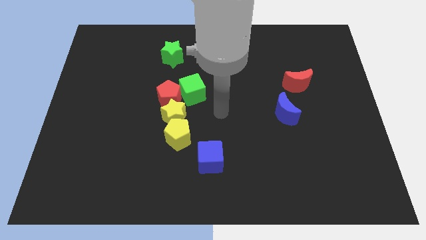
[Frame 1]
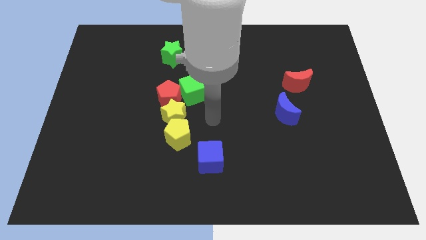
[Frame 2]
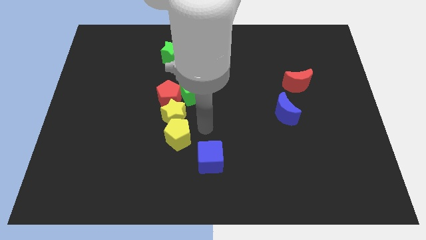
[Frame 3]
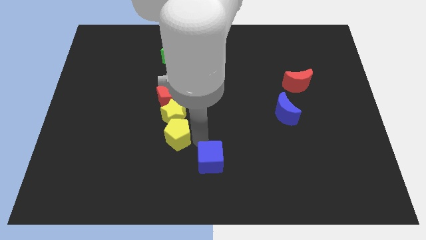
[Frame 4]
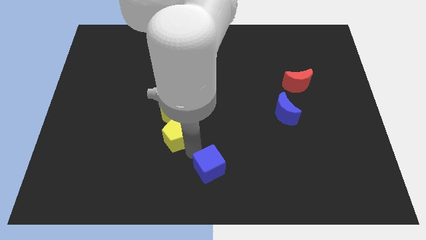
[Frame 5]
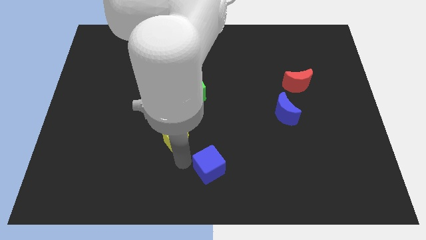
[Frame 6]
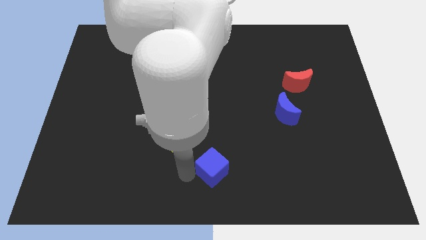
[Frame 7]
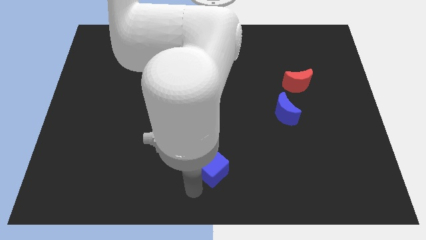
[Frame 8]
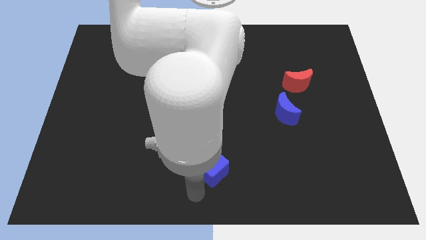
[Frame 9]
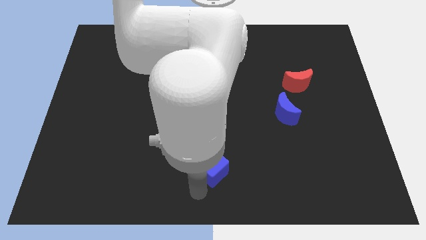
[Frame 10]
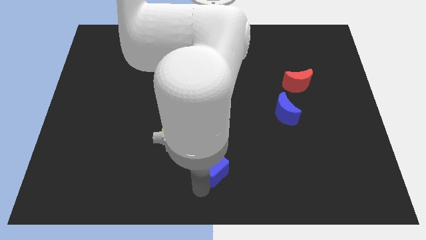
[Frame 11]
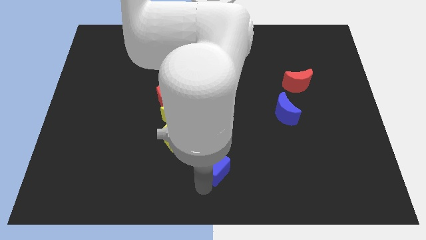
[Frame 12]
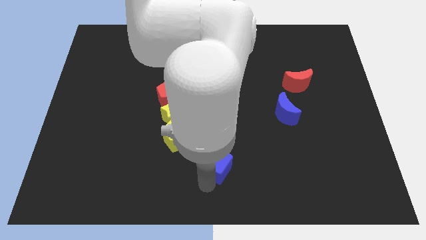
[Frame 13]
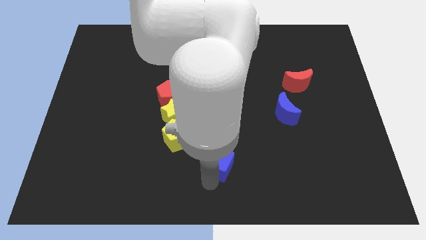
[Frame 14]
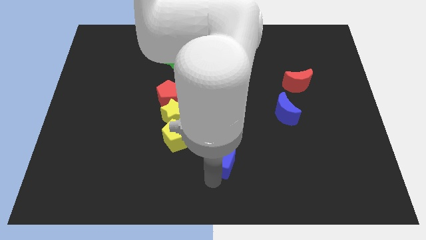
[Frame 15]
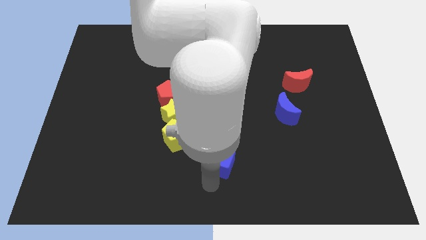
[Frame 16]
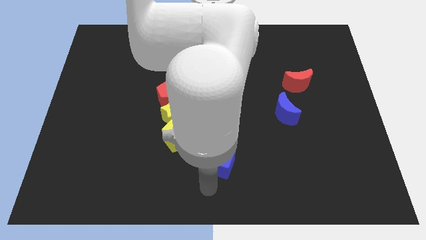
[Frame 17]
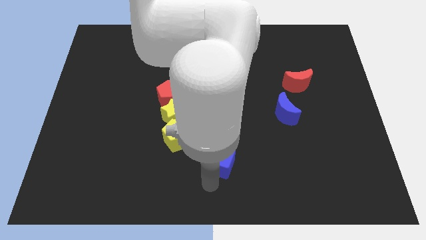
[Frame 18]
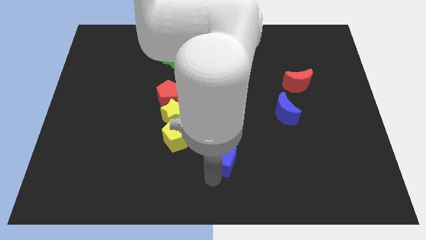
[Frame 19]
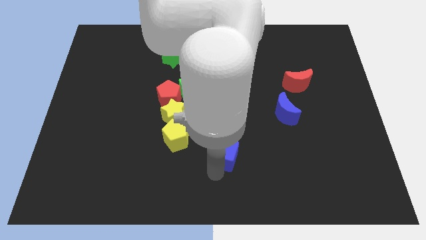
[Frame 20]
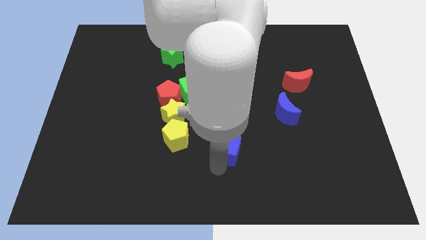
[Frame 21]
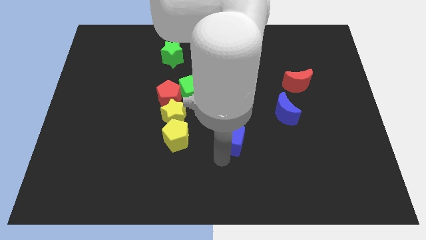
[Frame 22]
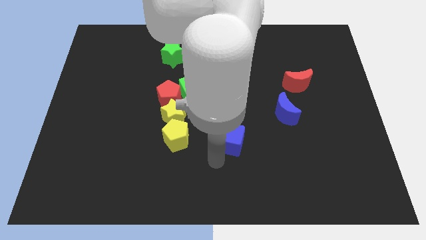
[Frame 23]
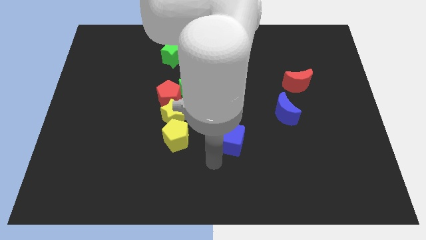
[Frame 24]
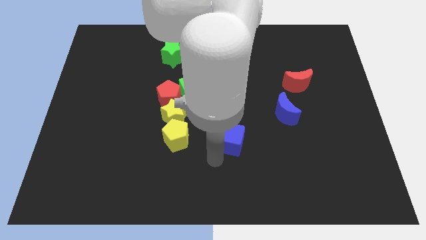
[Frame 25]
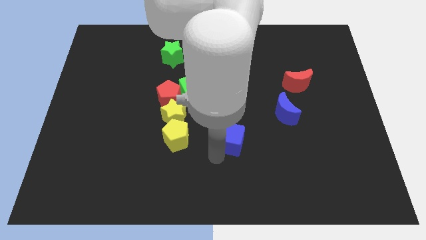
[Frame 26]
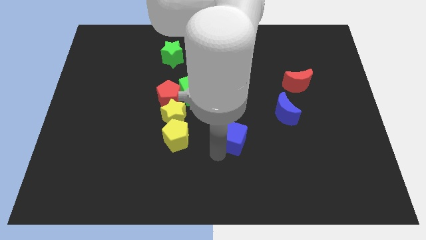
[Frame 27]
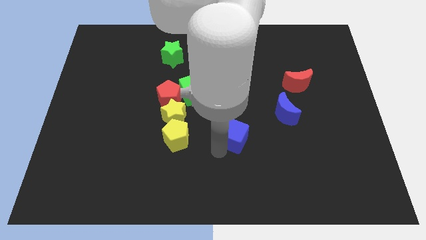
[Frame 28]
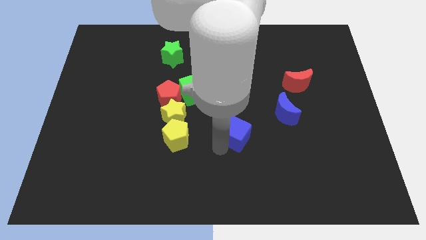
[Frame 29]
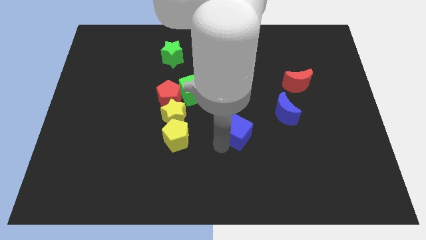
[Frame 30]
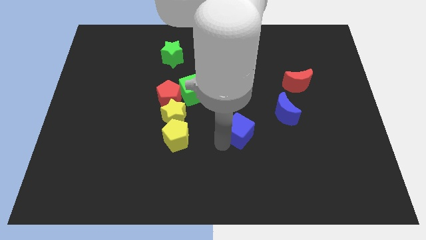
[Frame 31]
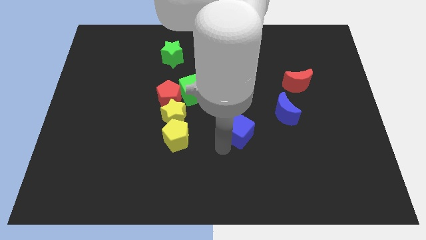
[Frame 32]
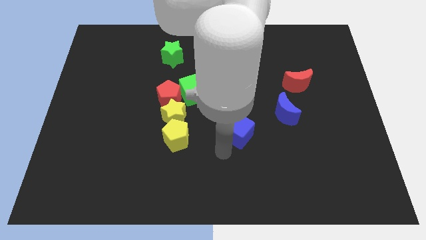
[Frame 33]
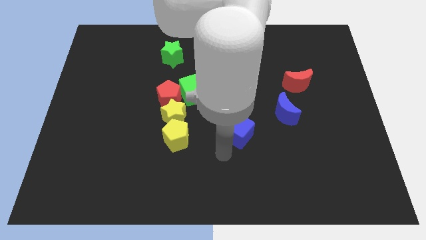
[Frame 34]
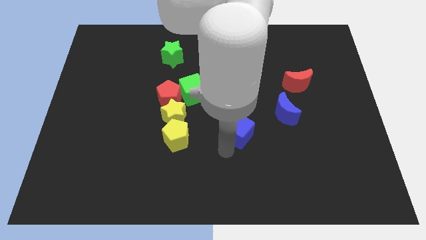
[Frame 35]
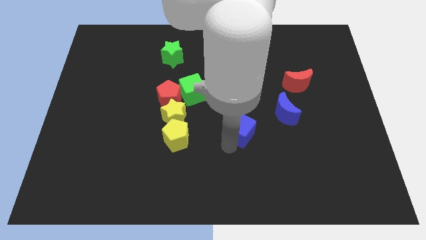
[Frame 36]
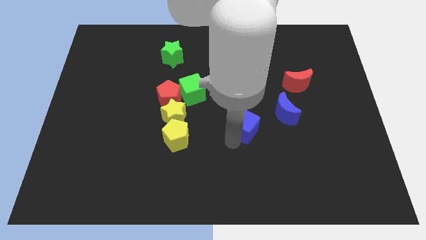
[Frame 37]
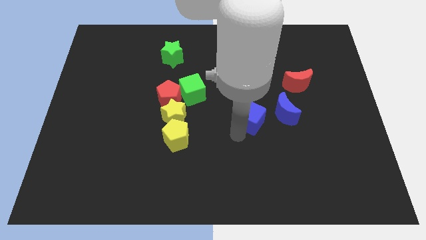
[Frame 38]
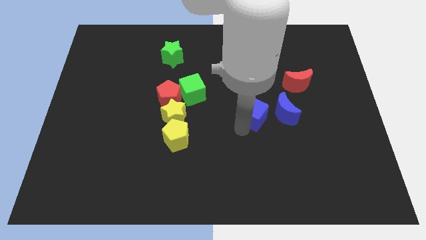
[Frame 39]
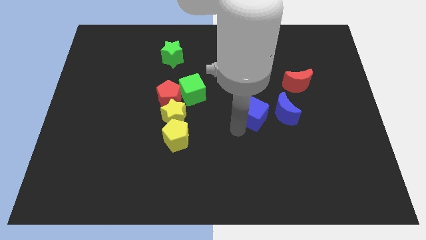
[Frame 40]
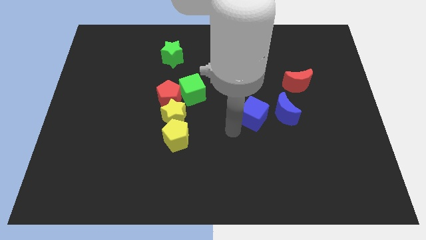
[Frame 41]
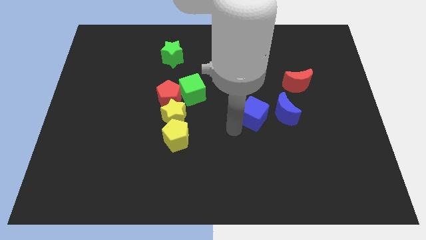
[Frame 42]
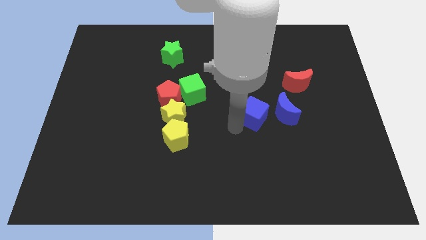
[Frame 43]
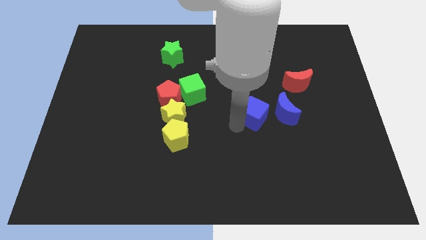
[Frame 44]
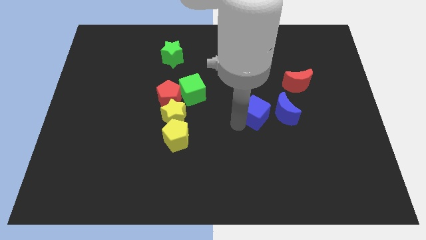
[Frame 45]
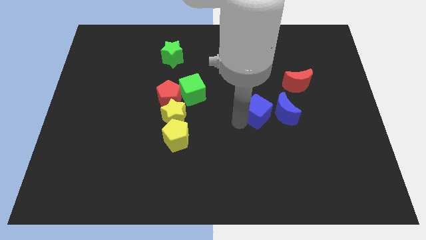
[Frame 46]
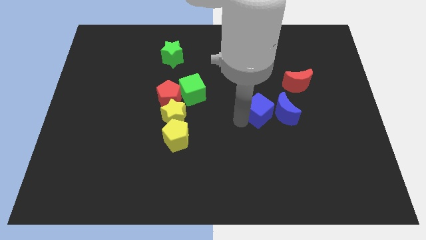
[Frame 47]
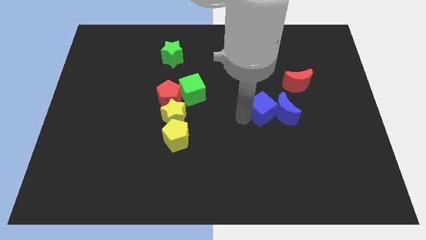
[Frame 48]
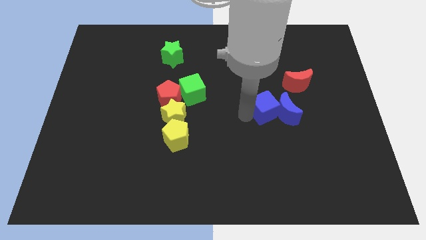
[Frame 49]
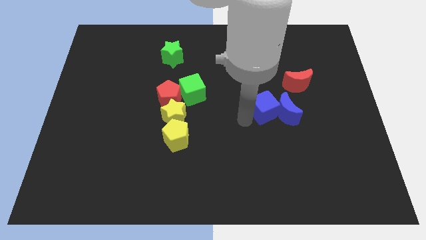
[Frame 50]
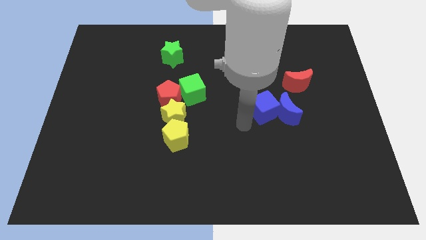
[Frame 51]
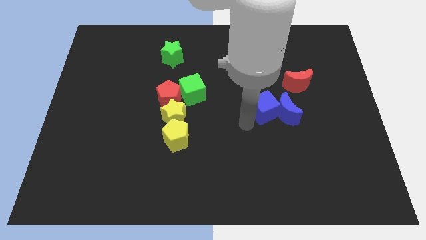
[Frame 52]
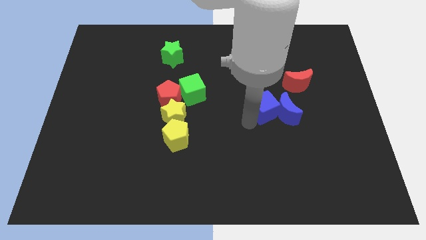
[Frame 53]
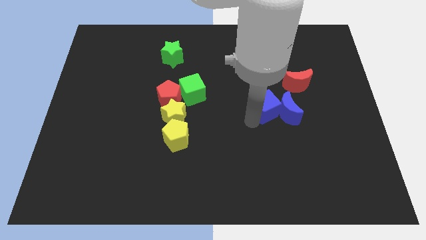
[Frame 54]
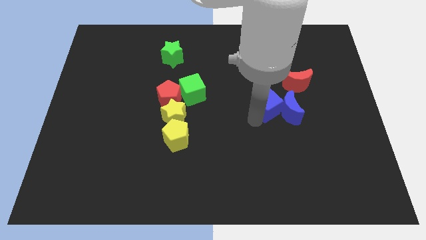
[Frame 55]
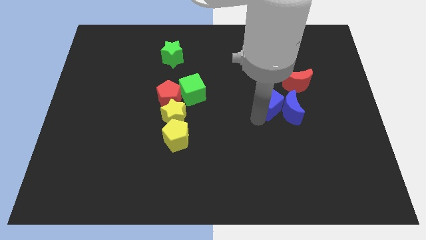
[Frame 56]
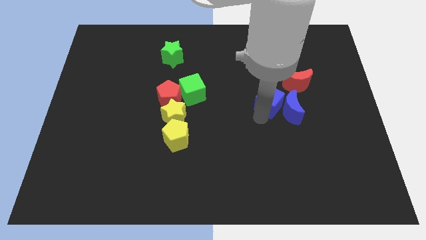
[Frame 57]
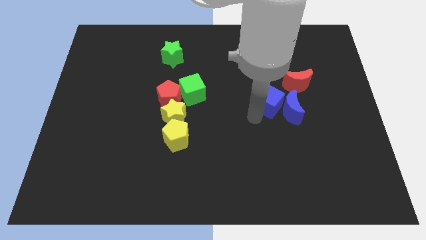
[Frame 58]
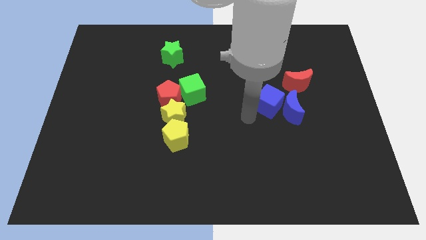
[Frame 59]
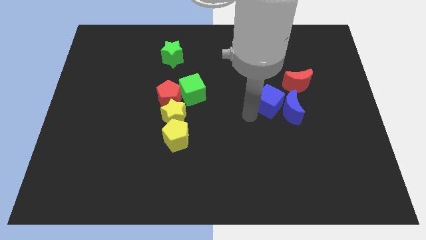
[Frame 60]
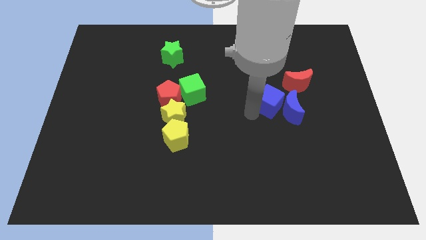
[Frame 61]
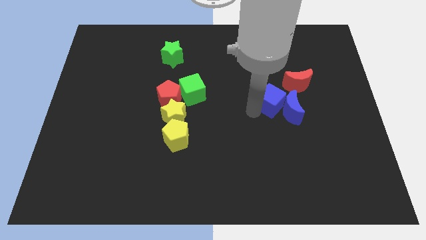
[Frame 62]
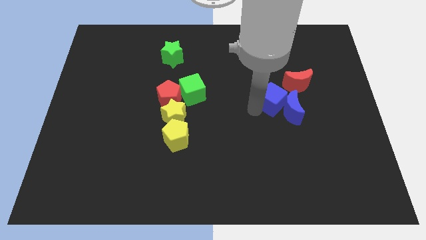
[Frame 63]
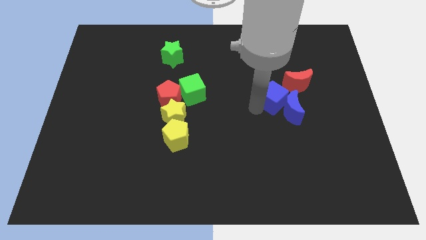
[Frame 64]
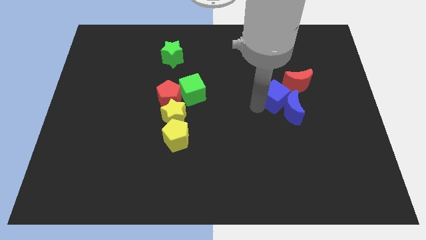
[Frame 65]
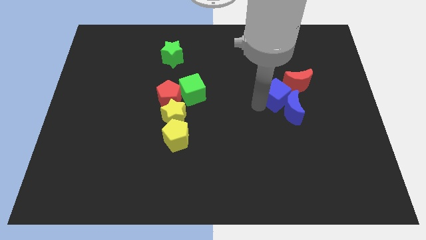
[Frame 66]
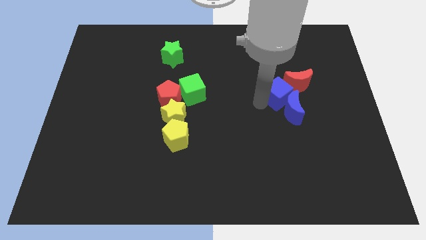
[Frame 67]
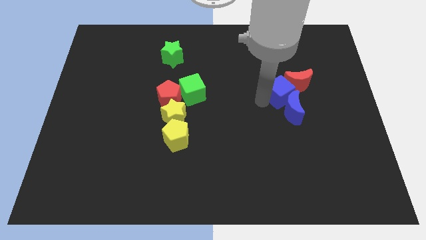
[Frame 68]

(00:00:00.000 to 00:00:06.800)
put the blue cube to the red moon
